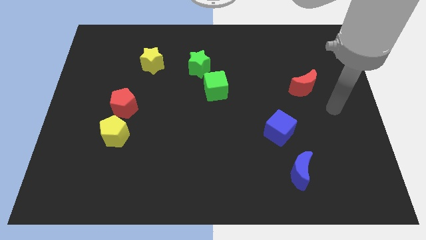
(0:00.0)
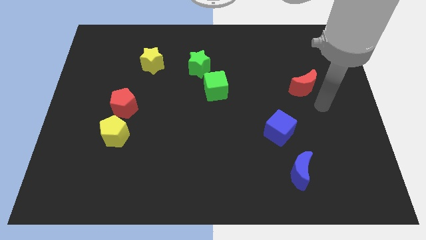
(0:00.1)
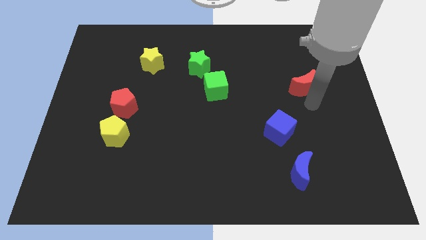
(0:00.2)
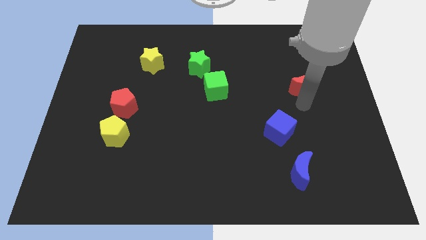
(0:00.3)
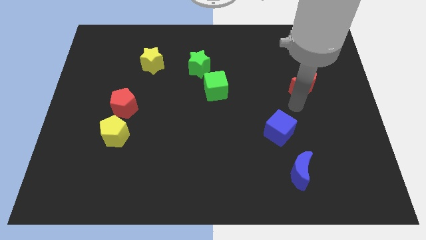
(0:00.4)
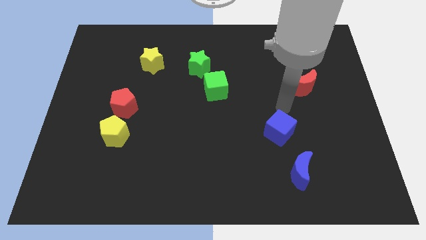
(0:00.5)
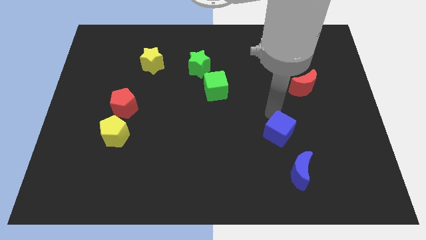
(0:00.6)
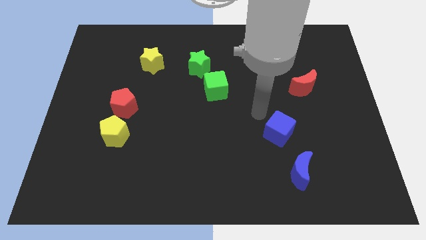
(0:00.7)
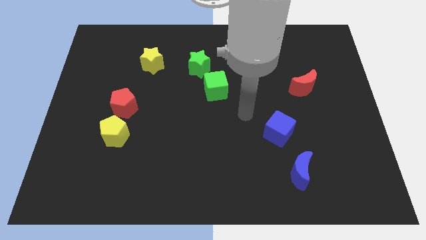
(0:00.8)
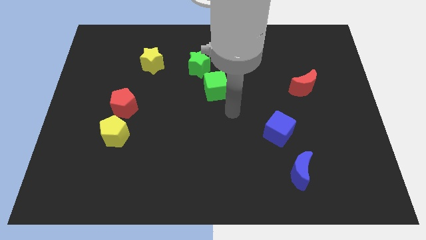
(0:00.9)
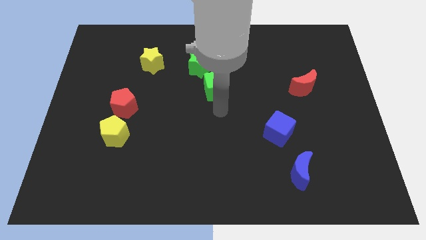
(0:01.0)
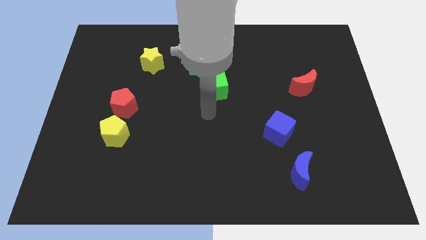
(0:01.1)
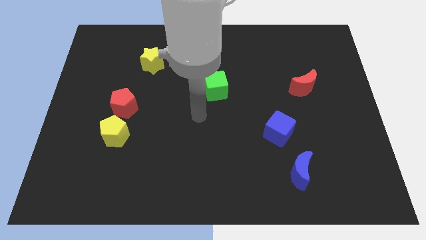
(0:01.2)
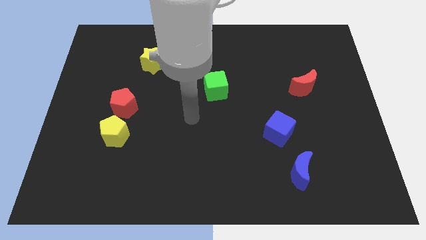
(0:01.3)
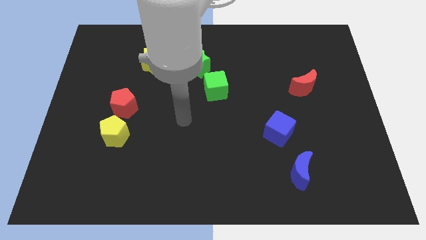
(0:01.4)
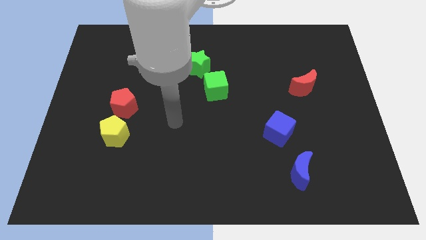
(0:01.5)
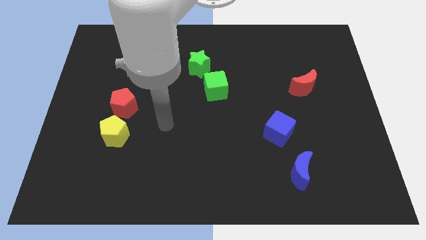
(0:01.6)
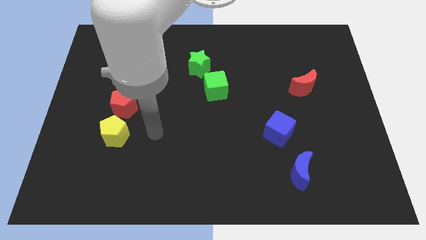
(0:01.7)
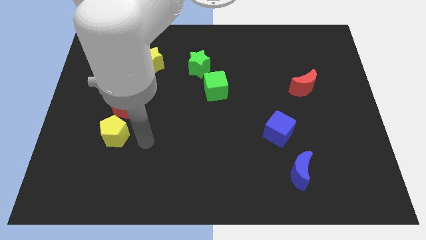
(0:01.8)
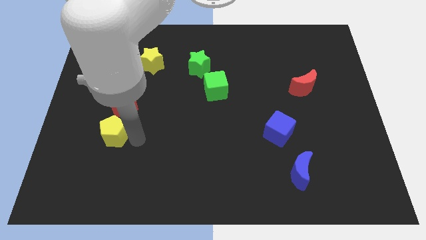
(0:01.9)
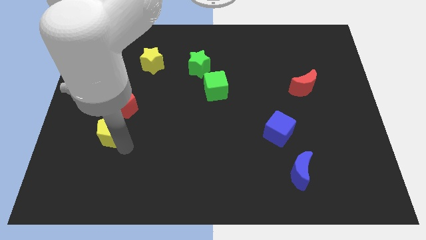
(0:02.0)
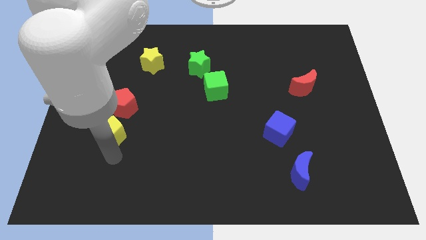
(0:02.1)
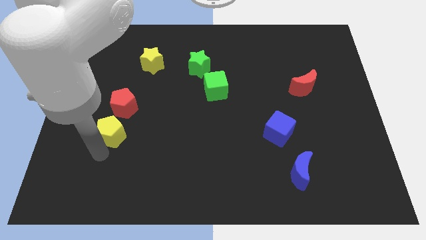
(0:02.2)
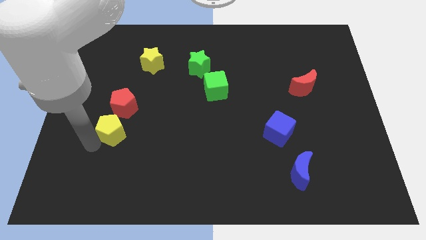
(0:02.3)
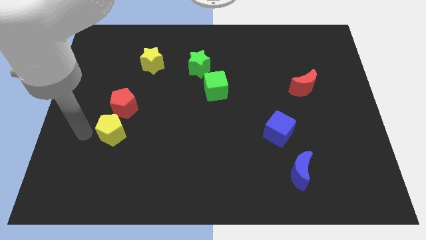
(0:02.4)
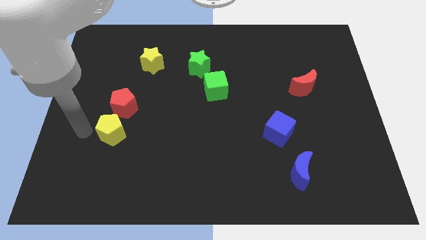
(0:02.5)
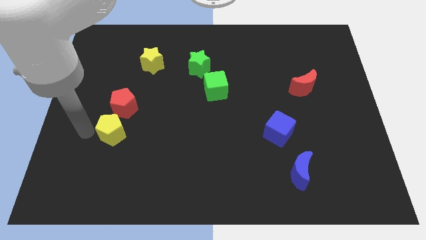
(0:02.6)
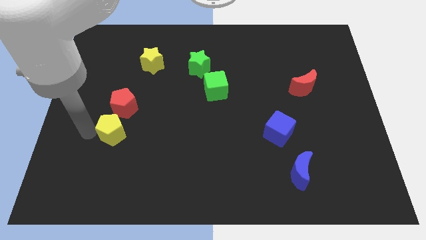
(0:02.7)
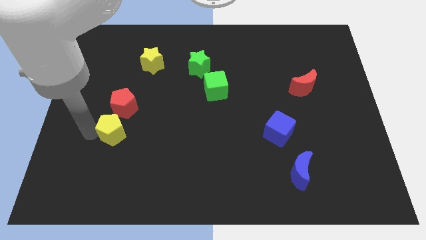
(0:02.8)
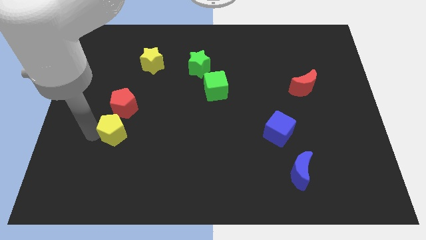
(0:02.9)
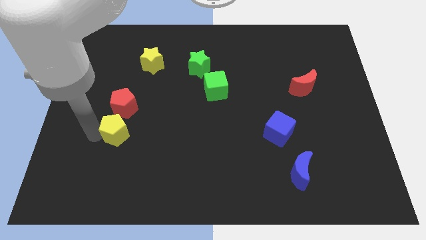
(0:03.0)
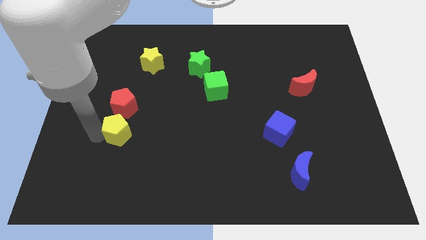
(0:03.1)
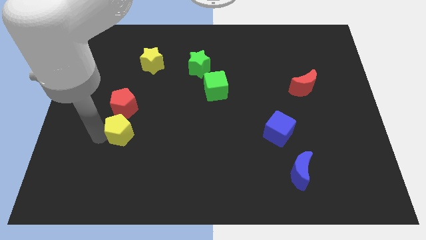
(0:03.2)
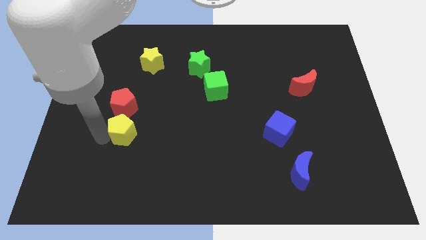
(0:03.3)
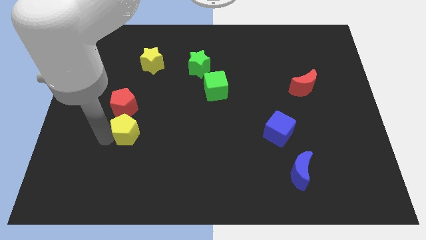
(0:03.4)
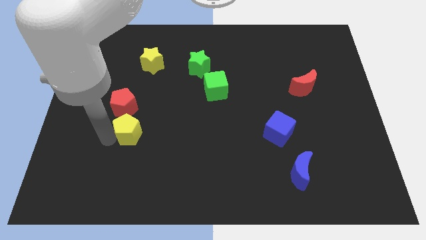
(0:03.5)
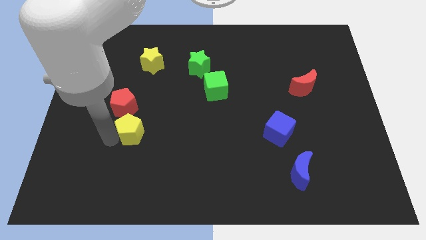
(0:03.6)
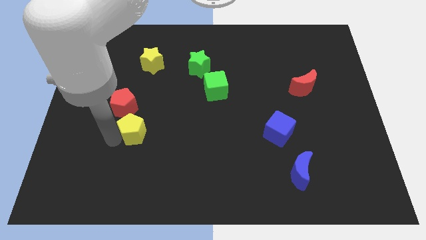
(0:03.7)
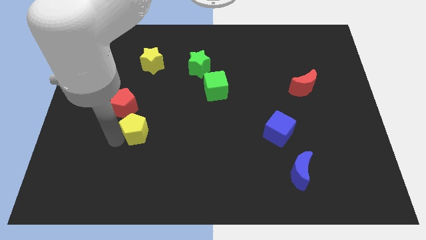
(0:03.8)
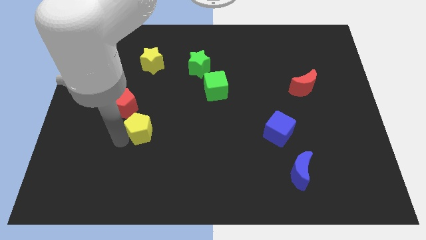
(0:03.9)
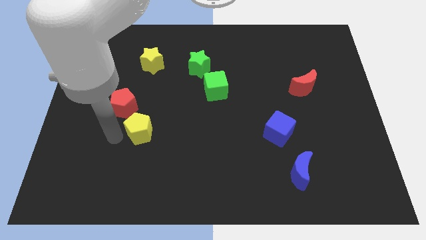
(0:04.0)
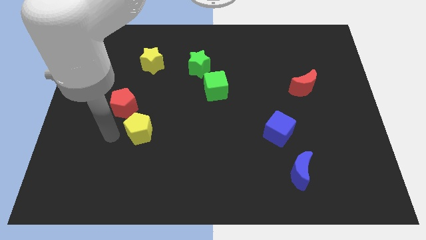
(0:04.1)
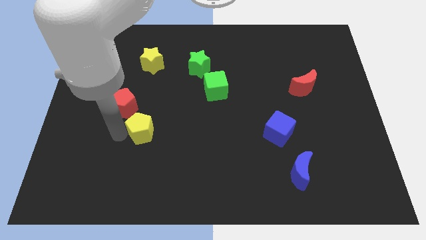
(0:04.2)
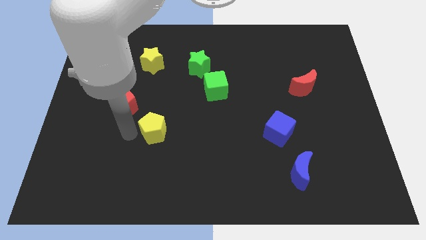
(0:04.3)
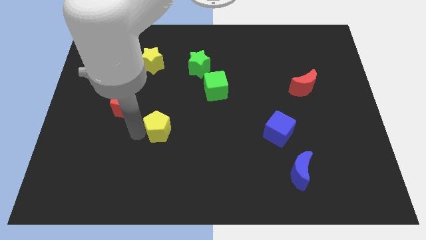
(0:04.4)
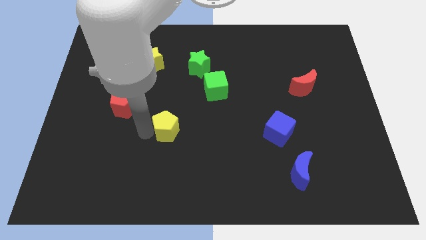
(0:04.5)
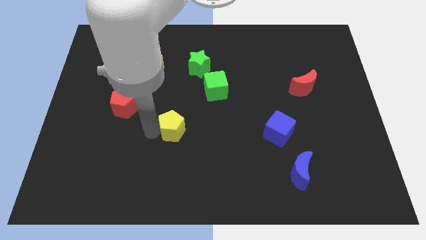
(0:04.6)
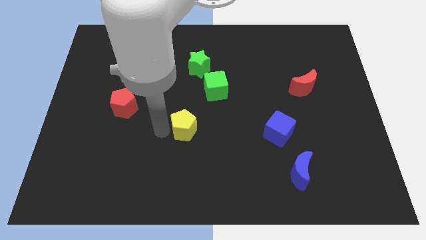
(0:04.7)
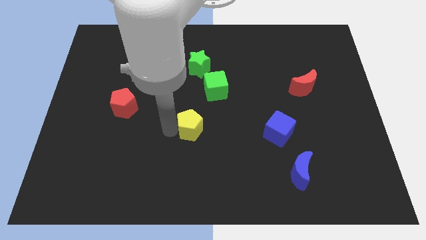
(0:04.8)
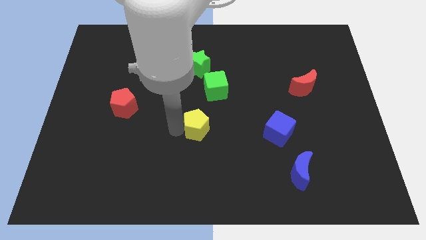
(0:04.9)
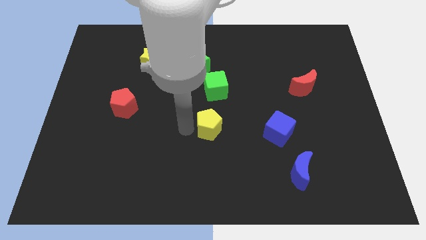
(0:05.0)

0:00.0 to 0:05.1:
push the yellow pentagon right

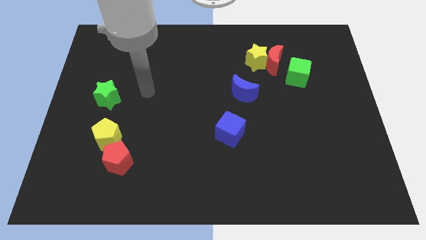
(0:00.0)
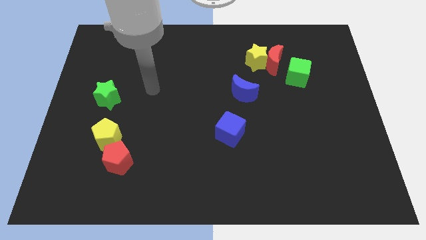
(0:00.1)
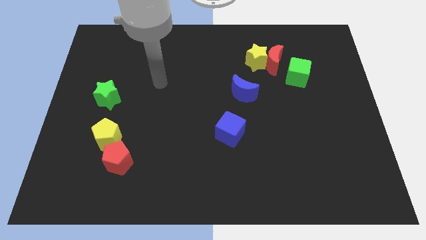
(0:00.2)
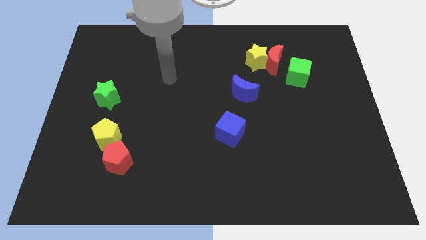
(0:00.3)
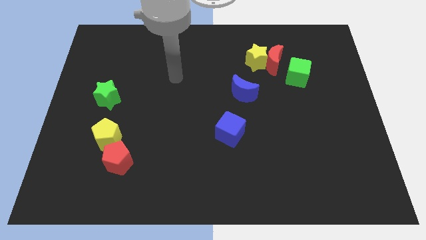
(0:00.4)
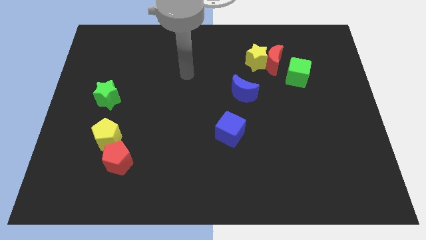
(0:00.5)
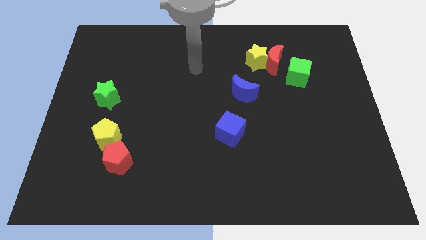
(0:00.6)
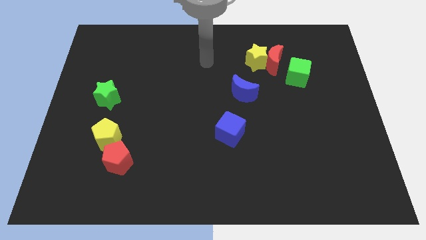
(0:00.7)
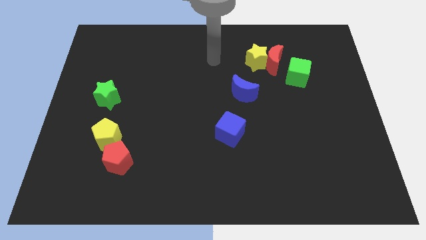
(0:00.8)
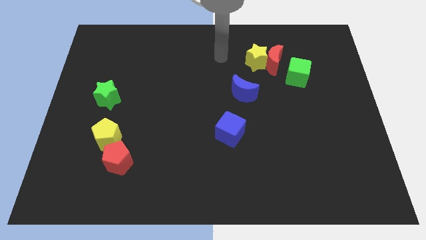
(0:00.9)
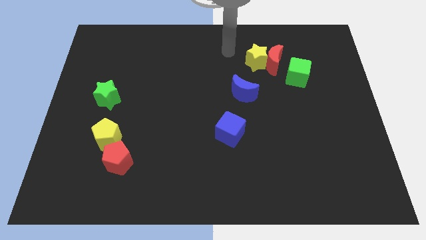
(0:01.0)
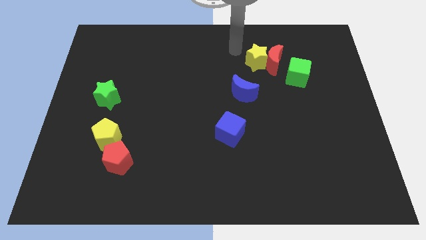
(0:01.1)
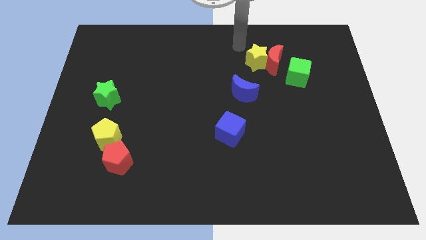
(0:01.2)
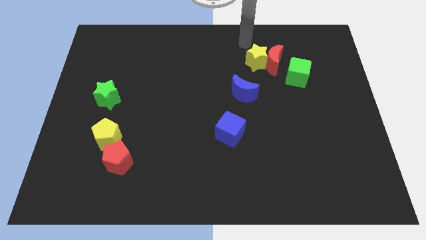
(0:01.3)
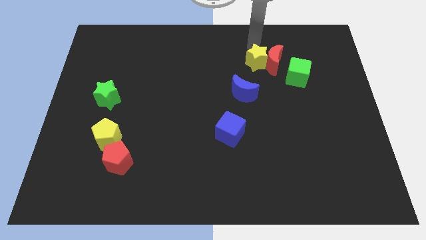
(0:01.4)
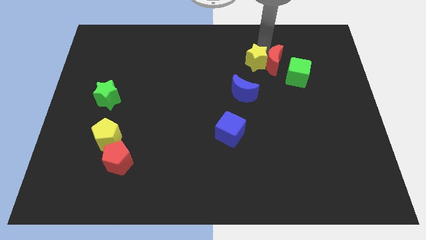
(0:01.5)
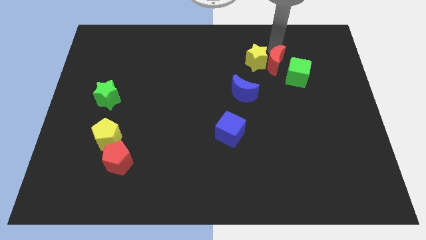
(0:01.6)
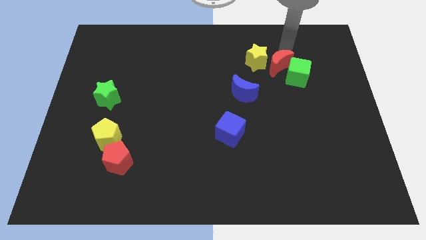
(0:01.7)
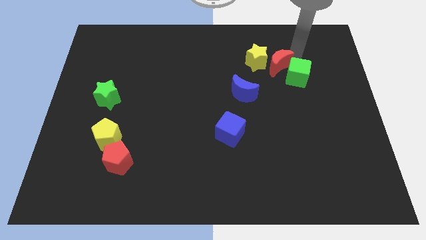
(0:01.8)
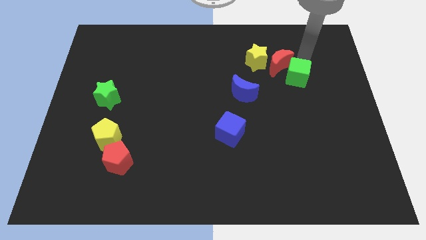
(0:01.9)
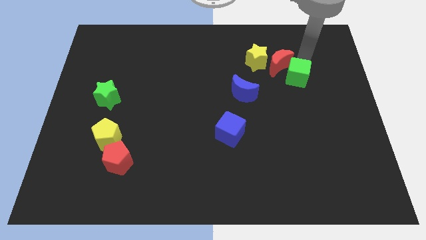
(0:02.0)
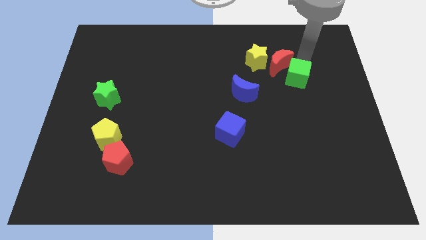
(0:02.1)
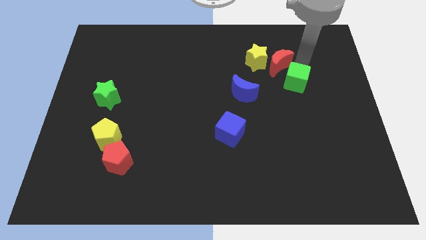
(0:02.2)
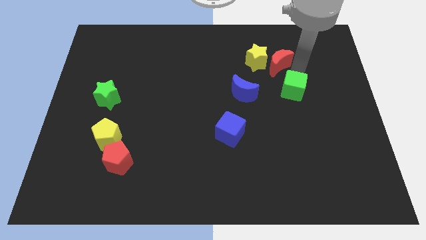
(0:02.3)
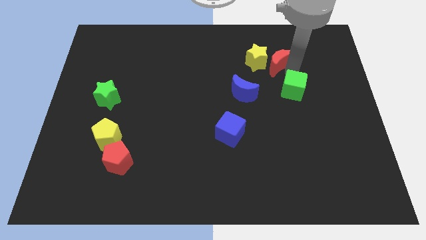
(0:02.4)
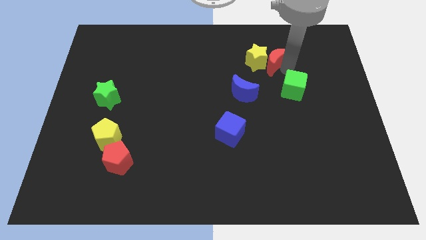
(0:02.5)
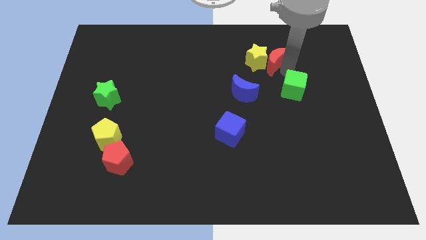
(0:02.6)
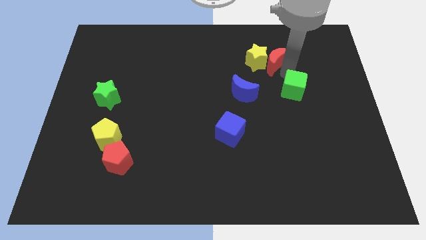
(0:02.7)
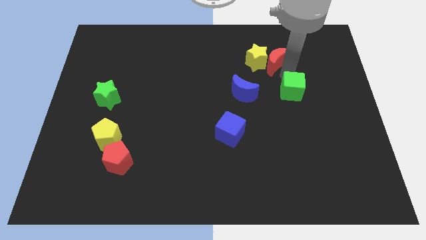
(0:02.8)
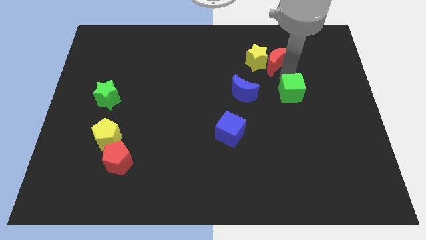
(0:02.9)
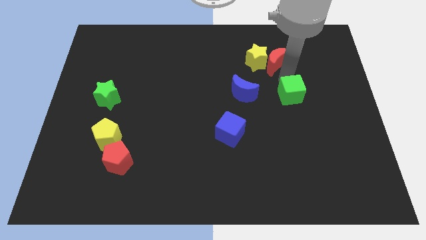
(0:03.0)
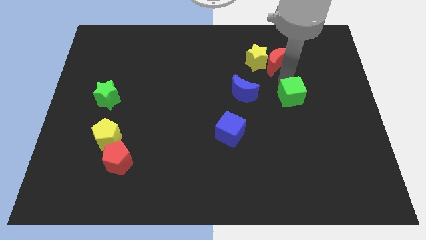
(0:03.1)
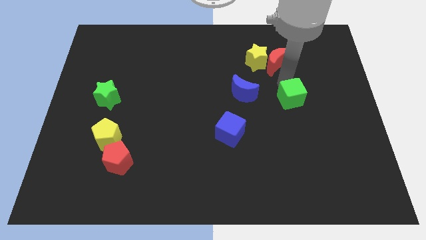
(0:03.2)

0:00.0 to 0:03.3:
slide the green cube a little bit downwards
